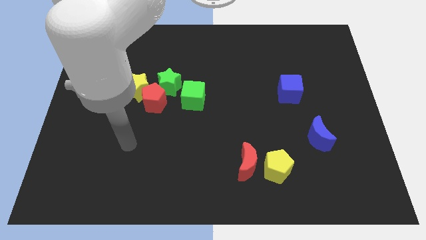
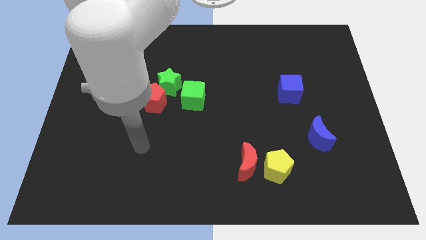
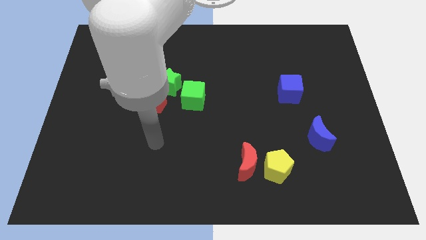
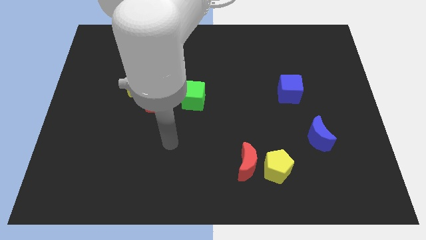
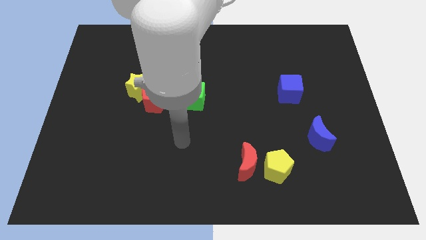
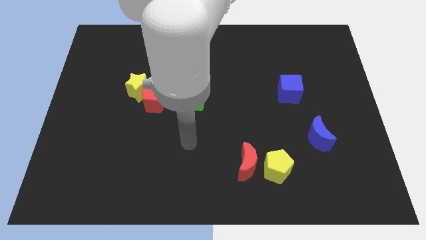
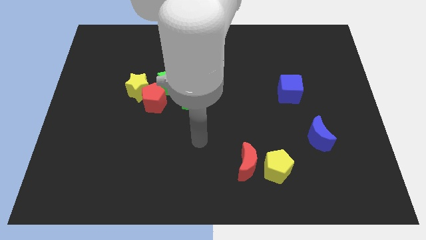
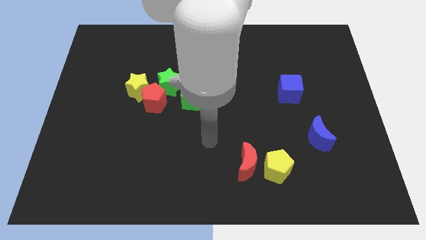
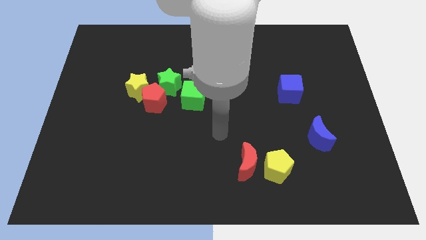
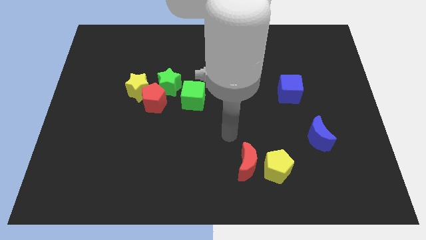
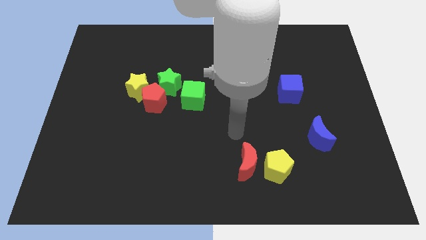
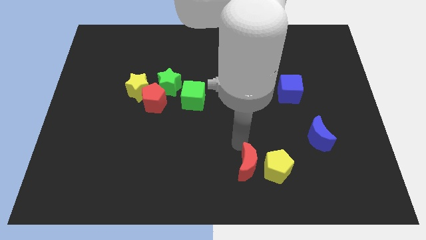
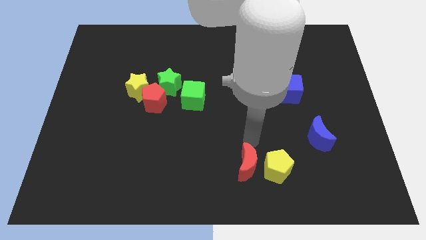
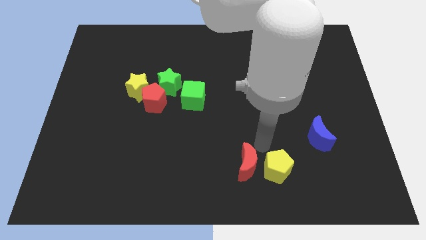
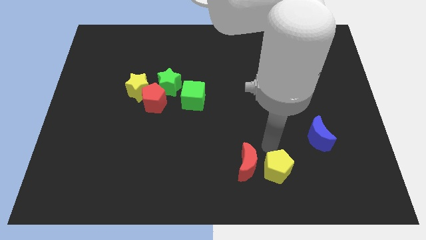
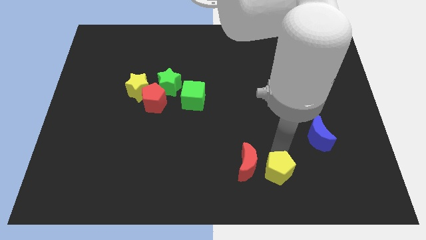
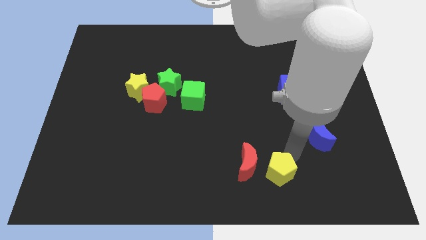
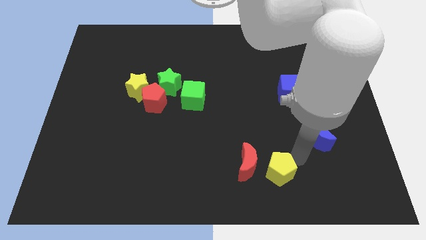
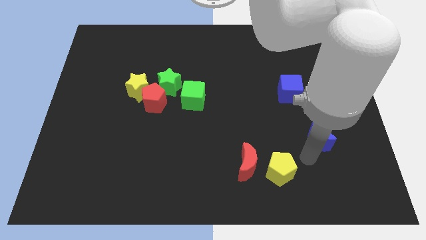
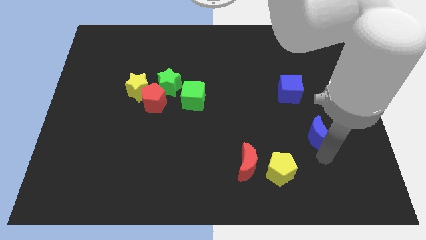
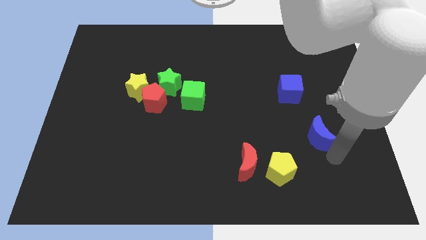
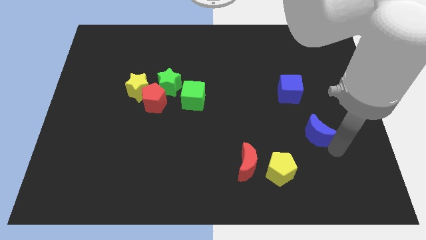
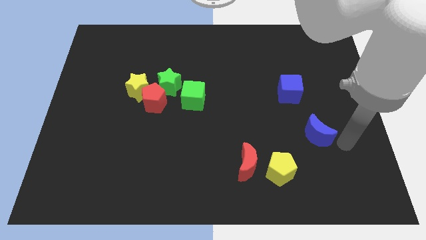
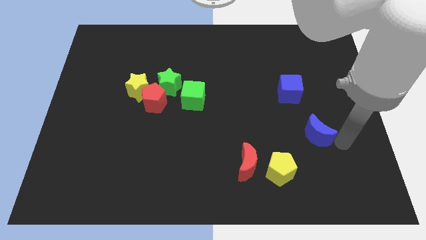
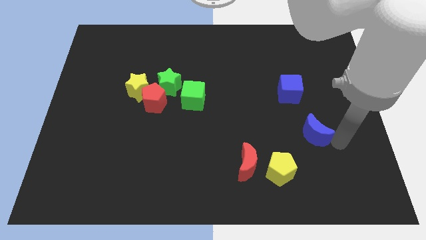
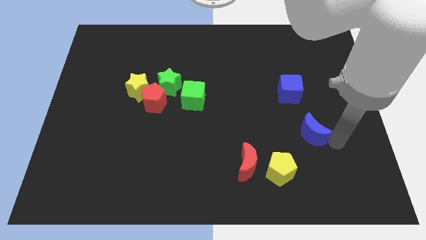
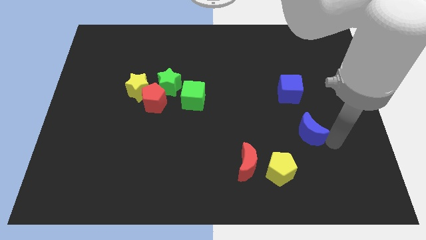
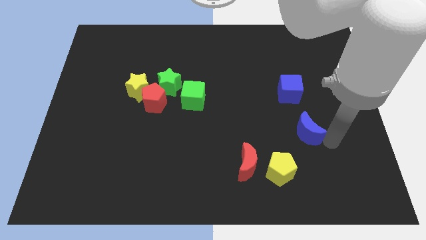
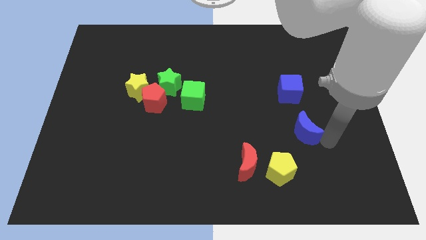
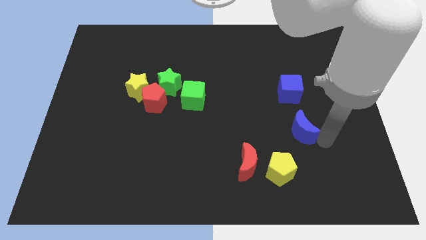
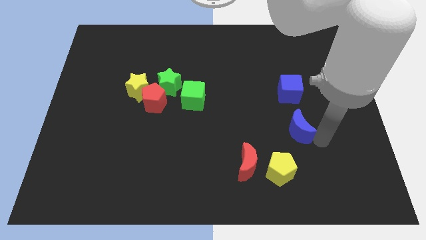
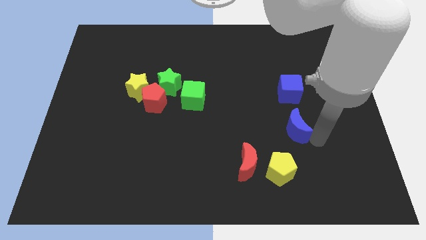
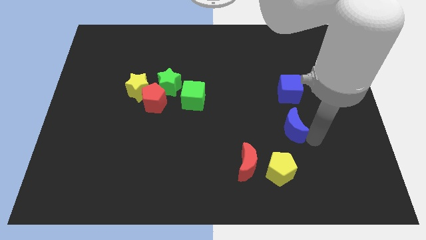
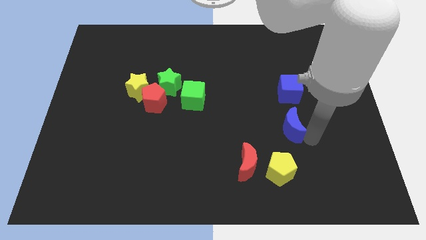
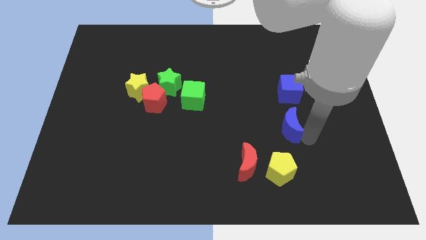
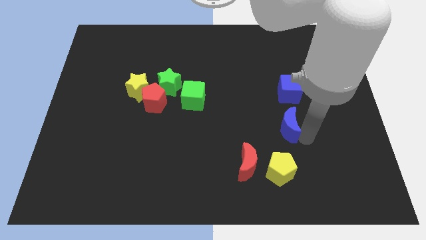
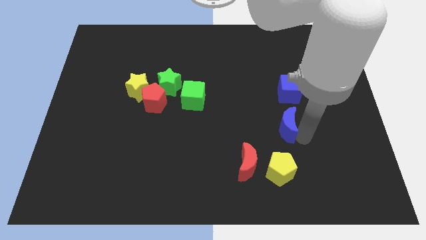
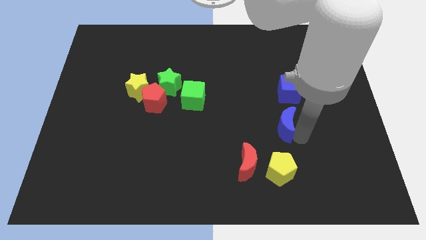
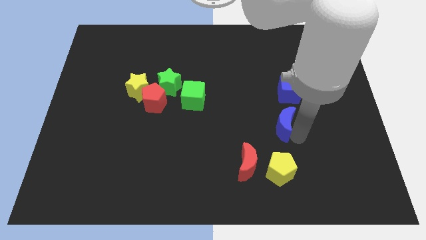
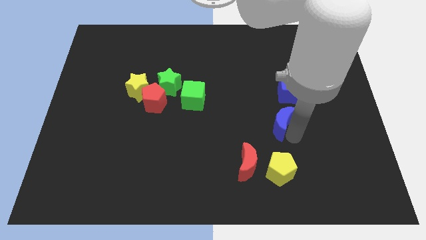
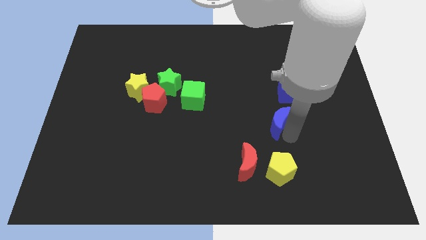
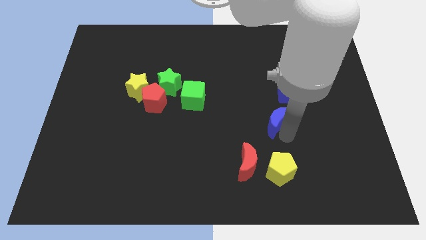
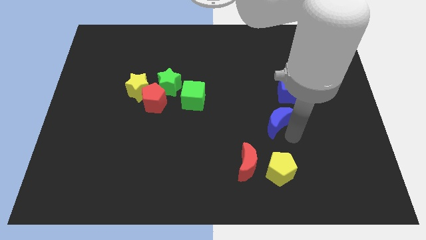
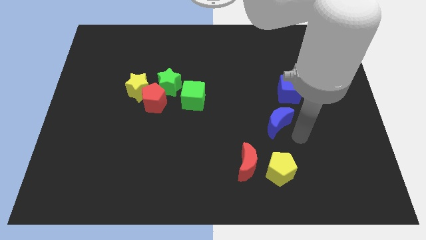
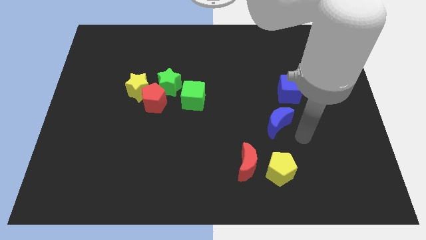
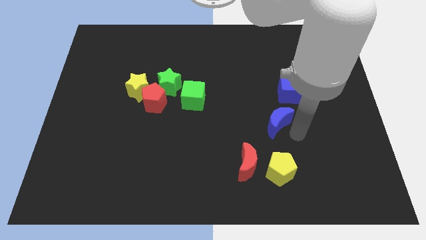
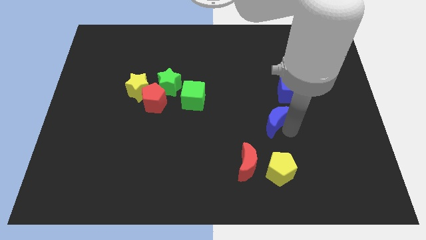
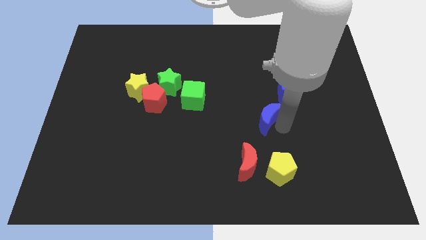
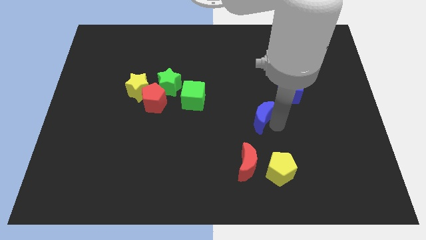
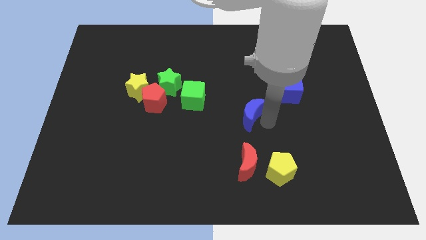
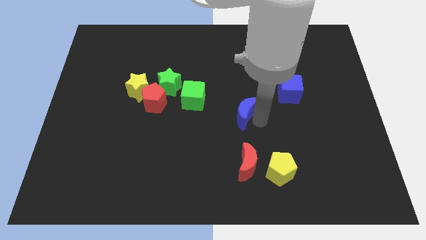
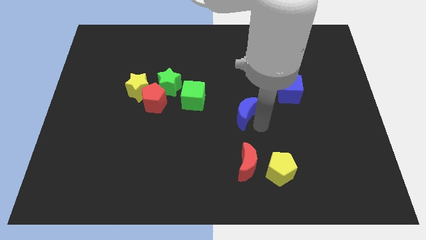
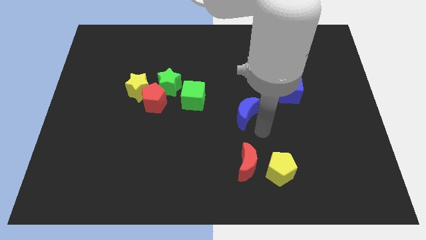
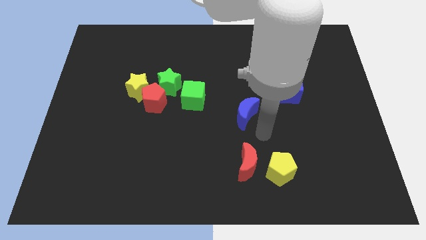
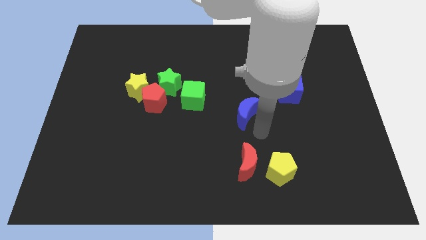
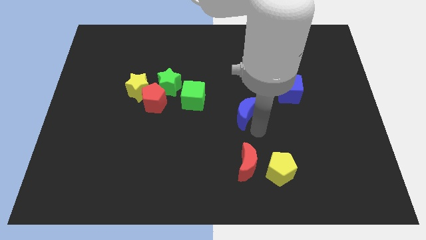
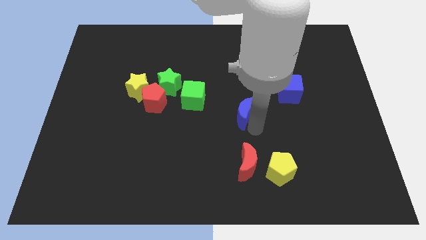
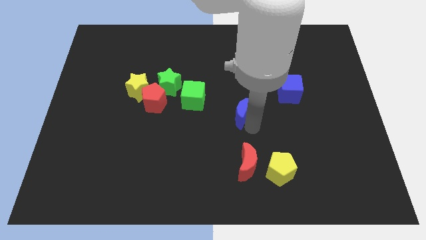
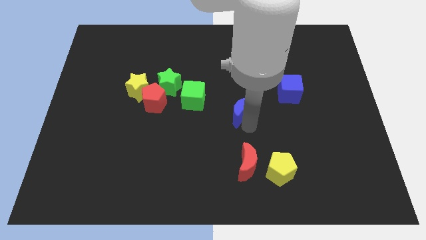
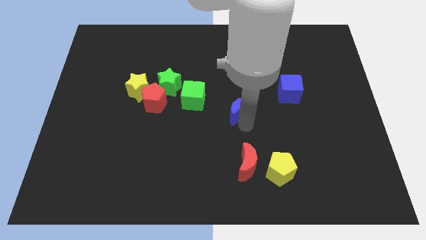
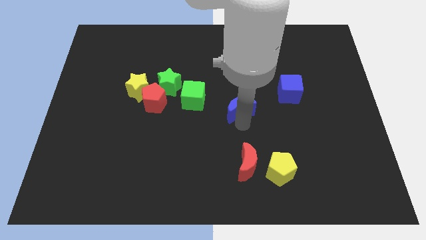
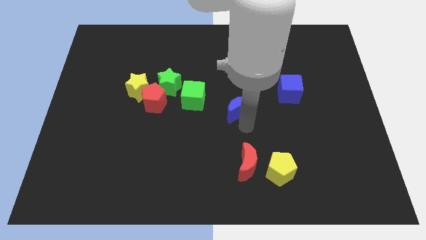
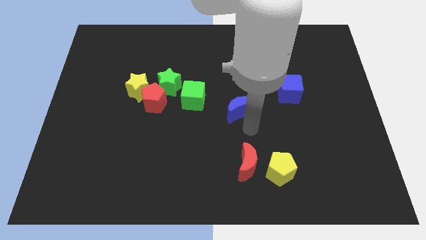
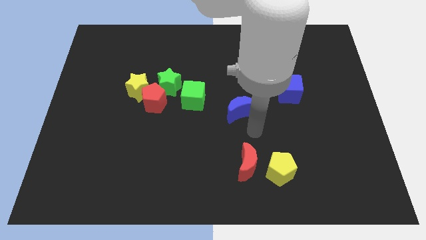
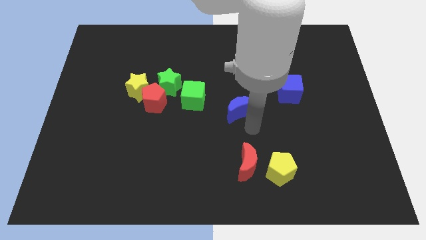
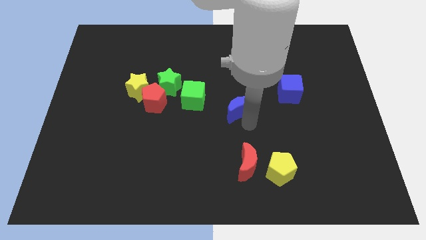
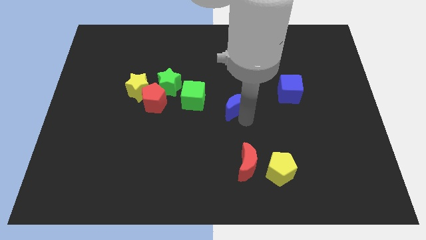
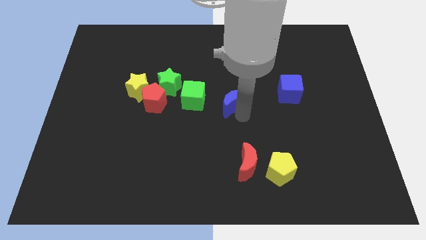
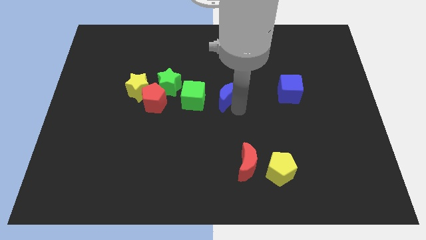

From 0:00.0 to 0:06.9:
push the blue moon just right of the green star

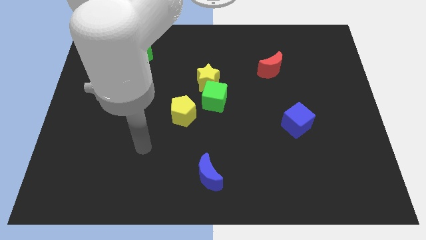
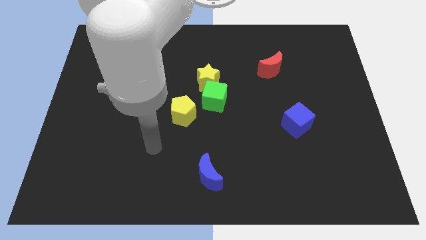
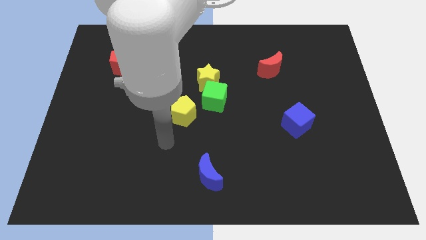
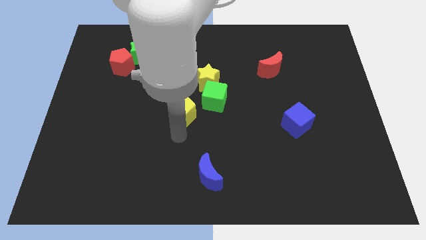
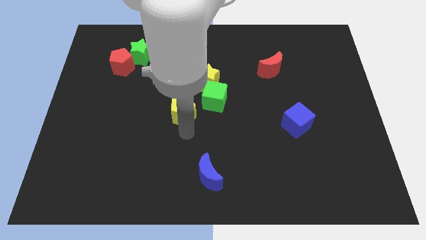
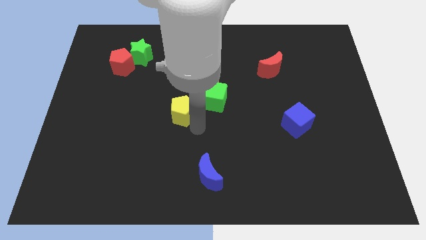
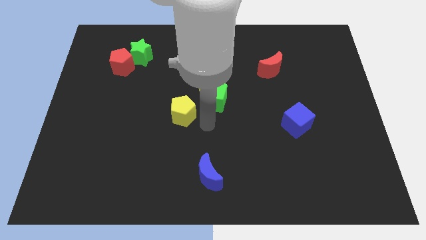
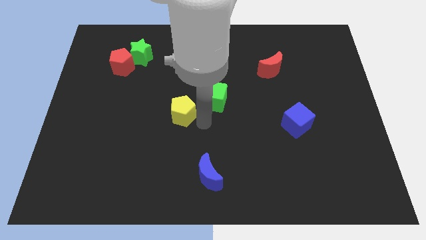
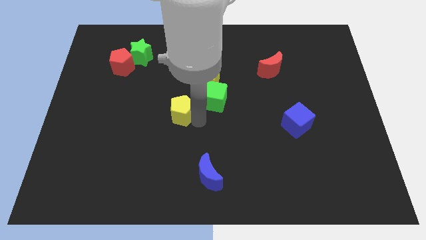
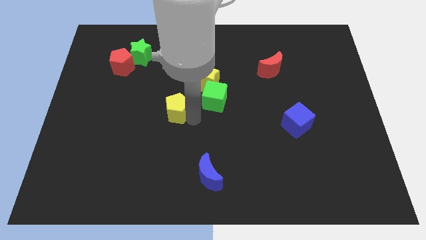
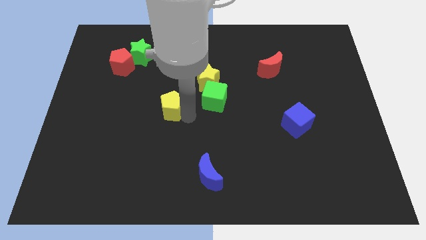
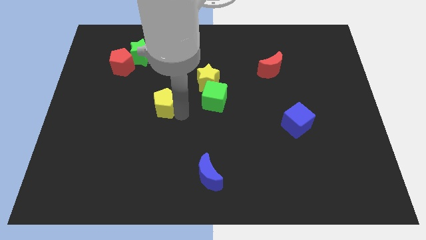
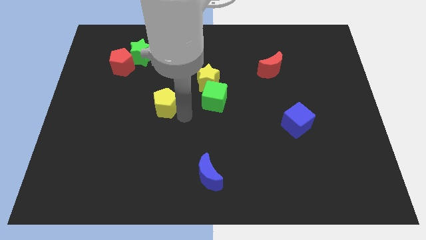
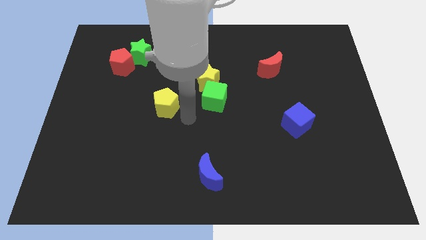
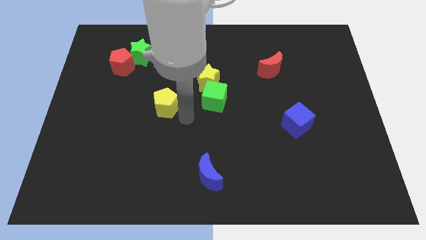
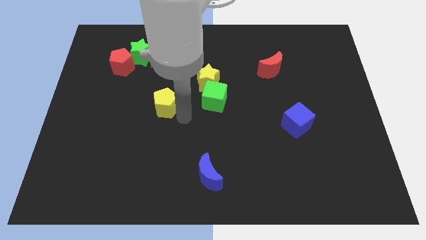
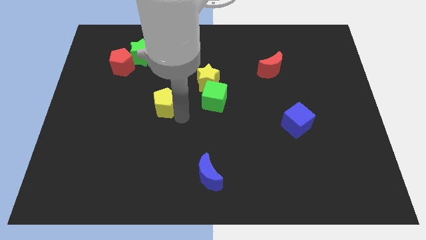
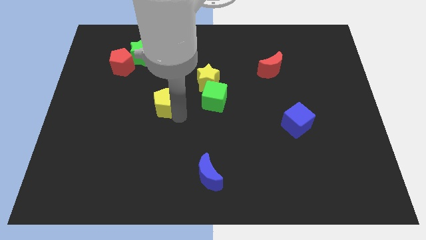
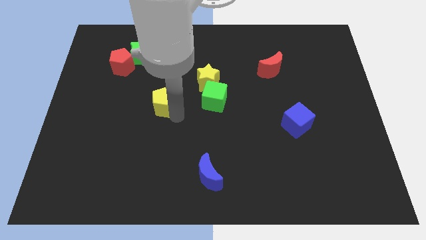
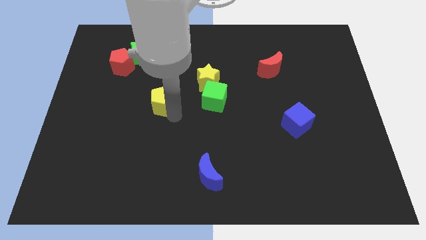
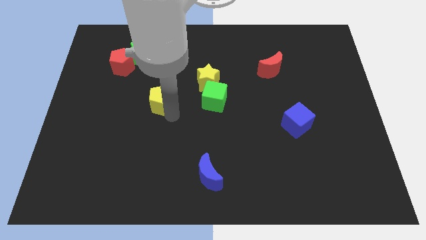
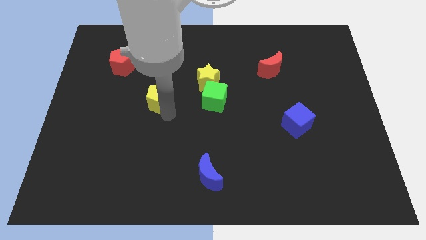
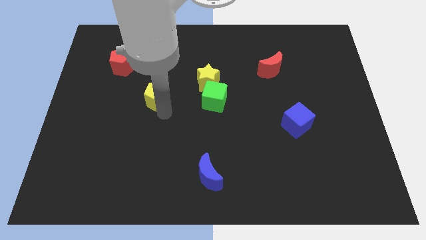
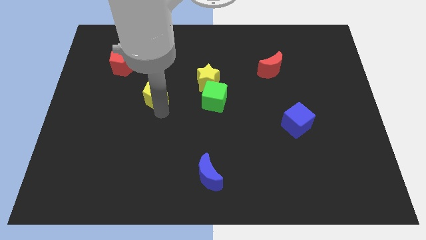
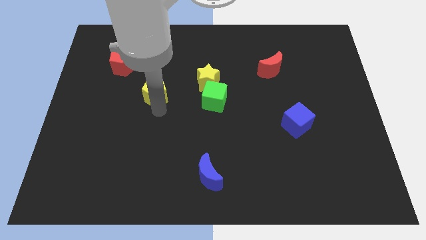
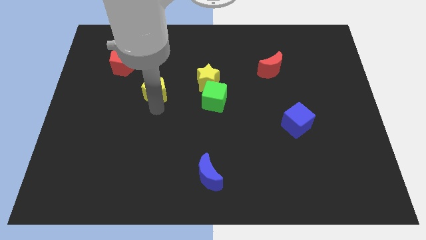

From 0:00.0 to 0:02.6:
push the yellow pentagon to the bottom of the green star
